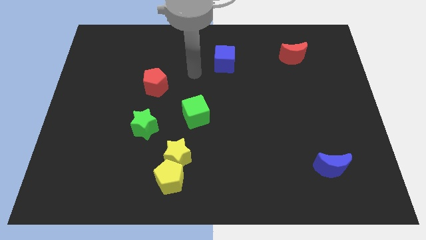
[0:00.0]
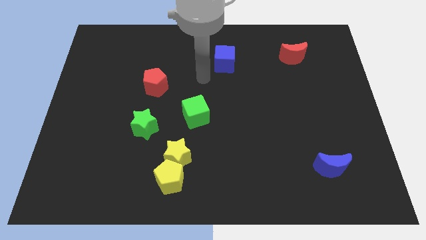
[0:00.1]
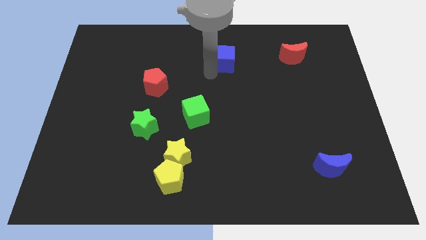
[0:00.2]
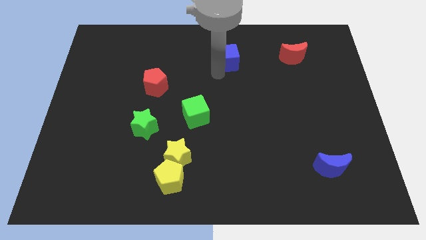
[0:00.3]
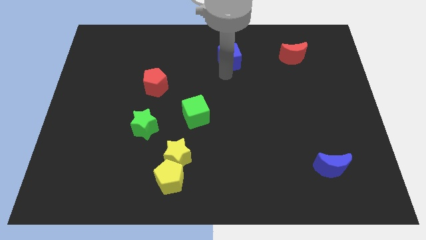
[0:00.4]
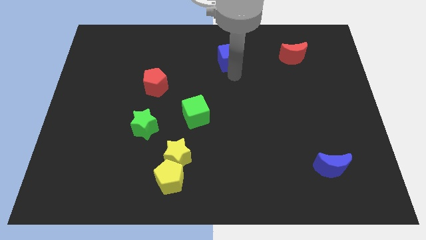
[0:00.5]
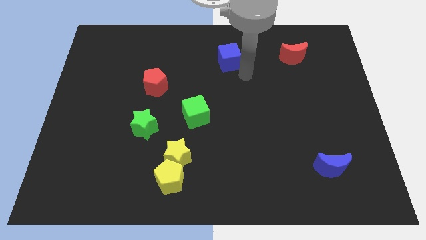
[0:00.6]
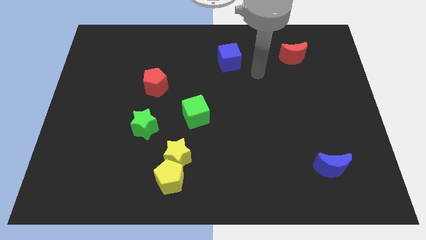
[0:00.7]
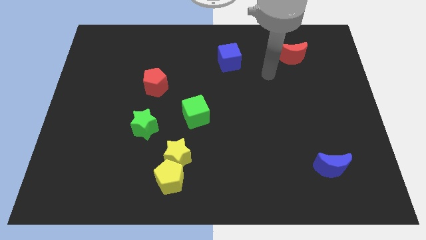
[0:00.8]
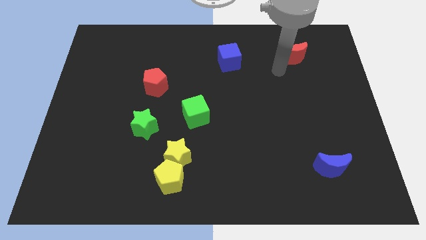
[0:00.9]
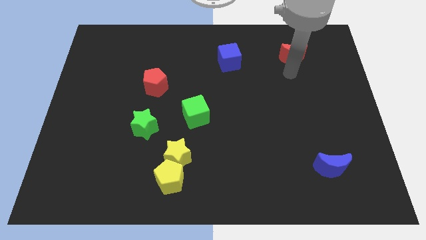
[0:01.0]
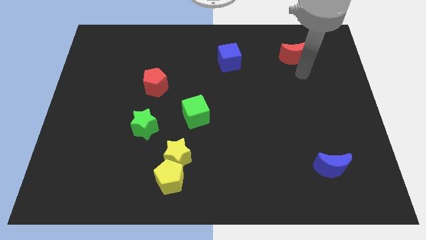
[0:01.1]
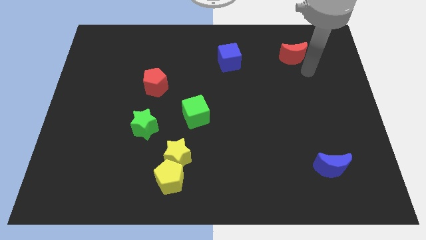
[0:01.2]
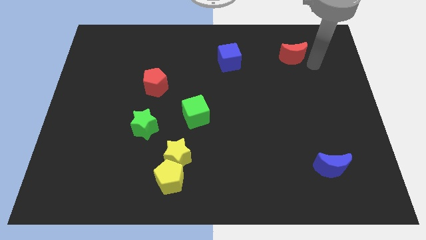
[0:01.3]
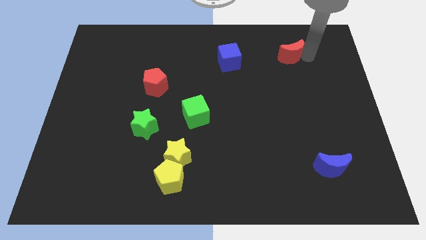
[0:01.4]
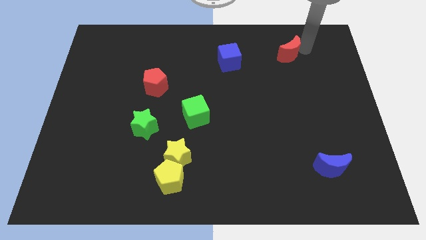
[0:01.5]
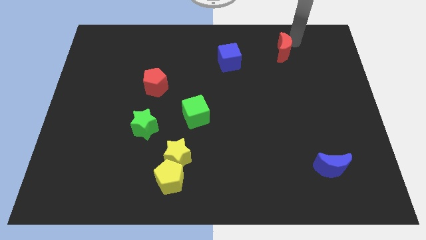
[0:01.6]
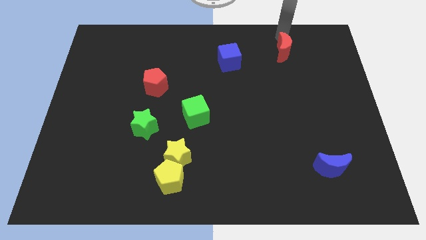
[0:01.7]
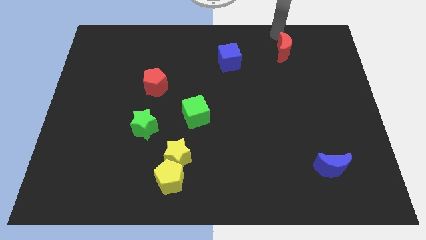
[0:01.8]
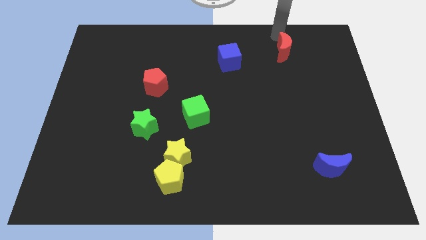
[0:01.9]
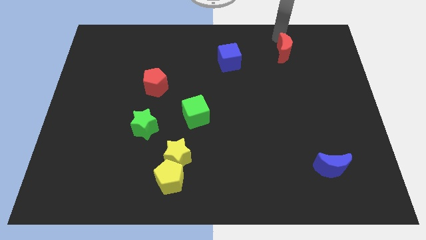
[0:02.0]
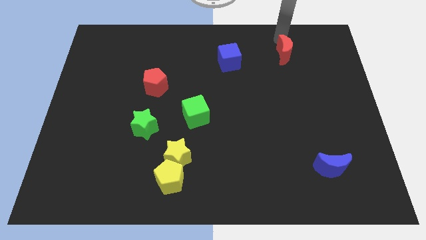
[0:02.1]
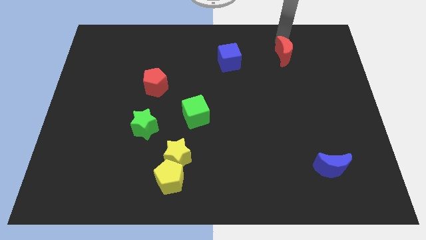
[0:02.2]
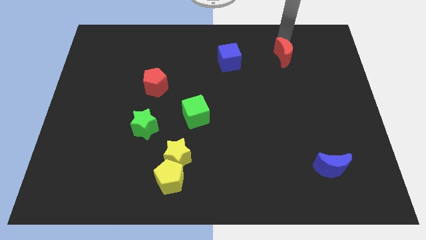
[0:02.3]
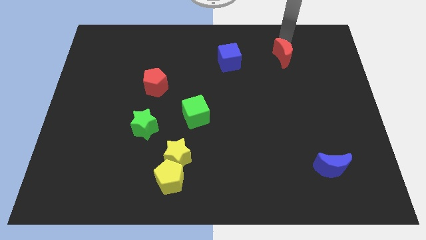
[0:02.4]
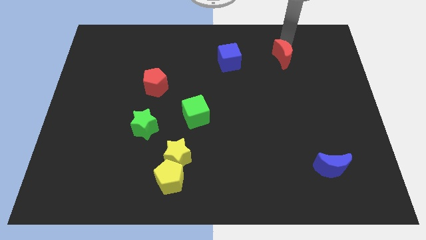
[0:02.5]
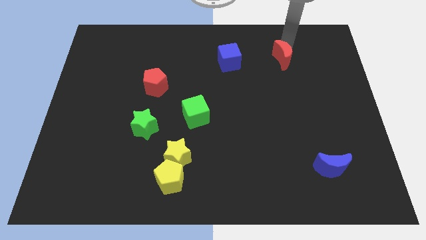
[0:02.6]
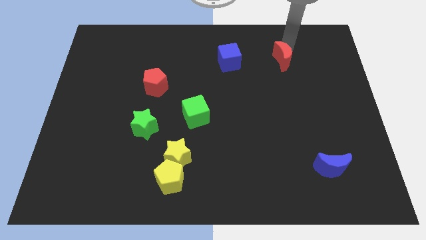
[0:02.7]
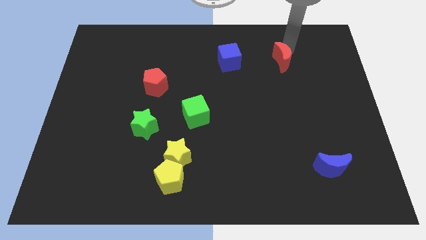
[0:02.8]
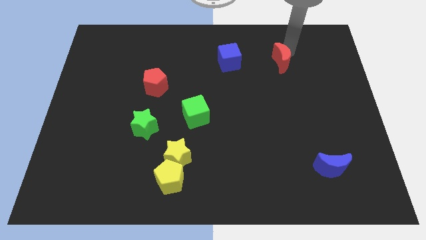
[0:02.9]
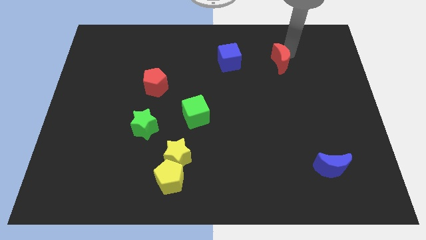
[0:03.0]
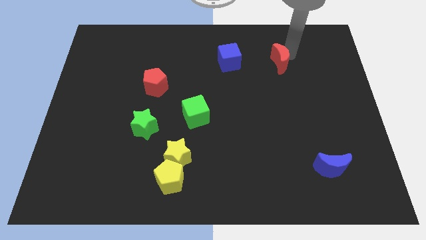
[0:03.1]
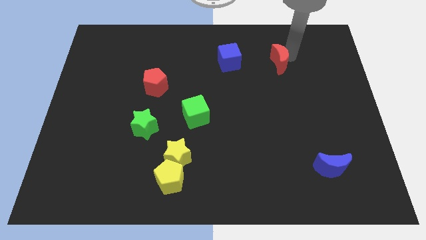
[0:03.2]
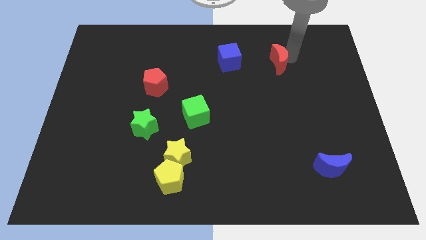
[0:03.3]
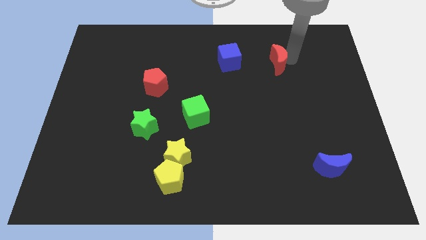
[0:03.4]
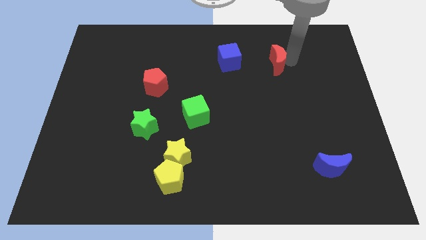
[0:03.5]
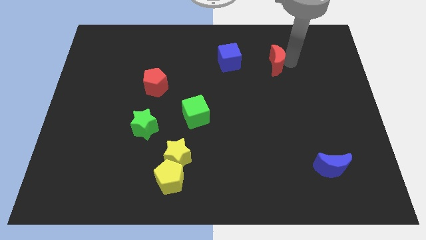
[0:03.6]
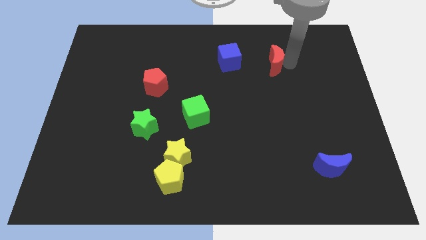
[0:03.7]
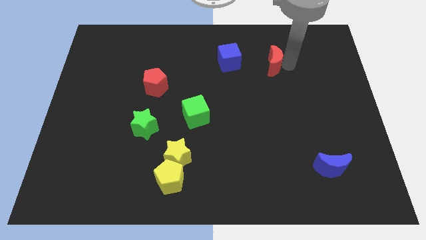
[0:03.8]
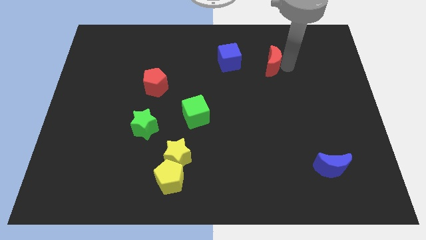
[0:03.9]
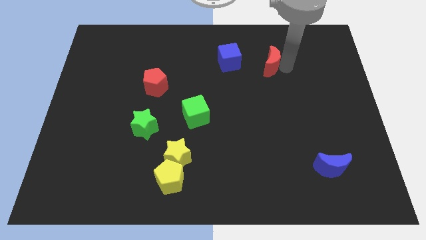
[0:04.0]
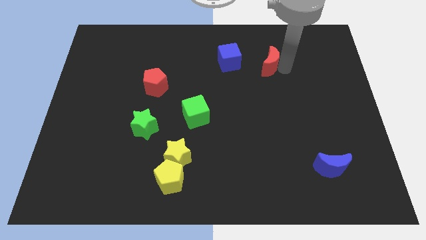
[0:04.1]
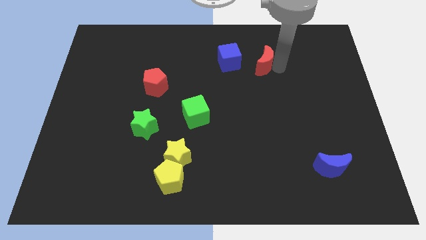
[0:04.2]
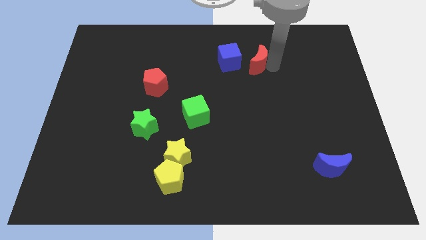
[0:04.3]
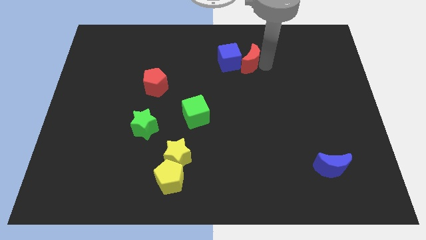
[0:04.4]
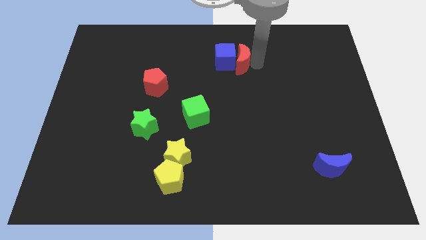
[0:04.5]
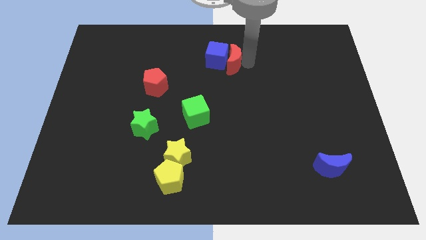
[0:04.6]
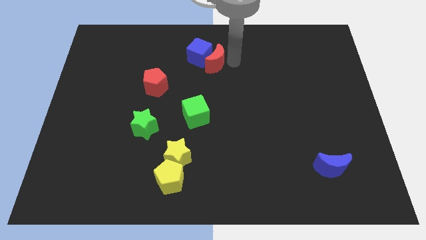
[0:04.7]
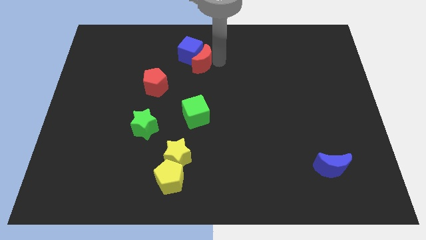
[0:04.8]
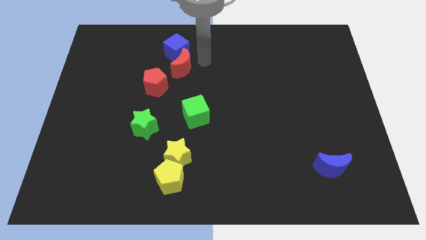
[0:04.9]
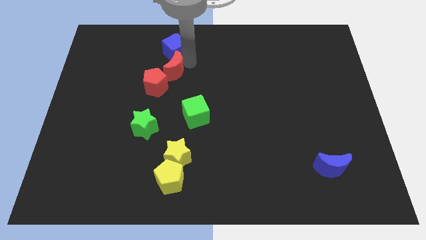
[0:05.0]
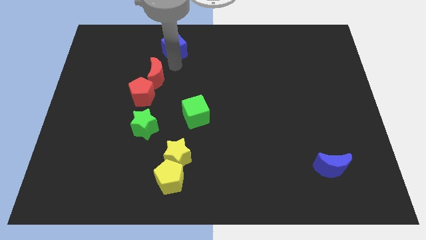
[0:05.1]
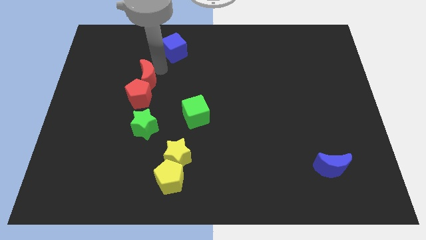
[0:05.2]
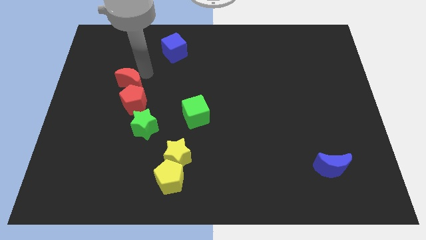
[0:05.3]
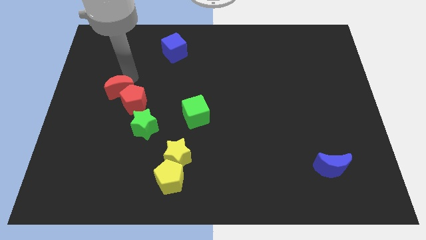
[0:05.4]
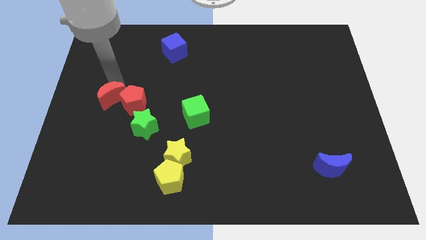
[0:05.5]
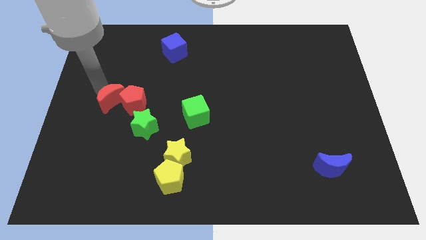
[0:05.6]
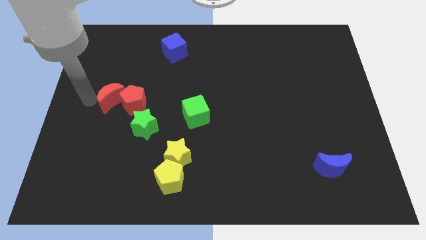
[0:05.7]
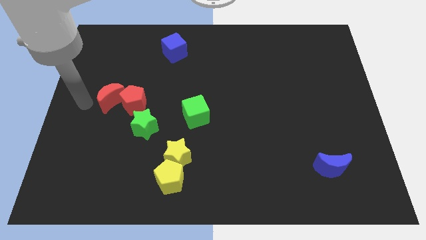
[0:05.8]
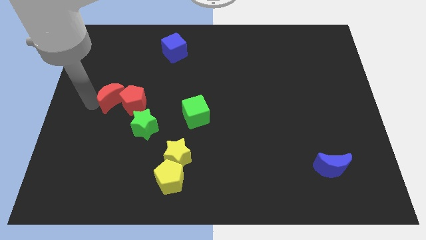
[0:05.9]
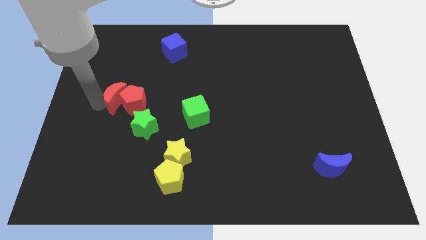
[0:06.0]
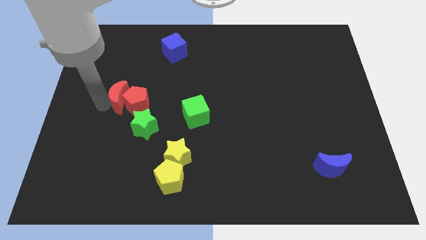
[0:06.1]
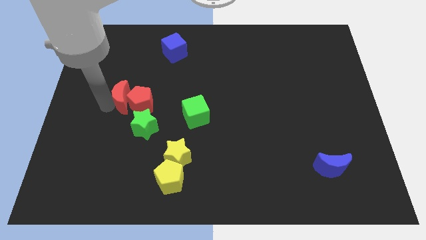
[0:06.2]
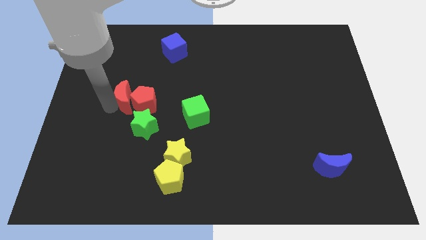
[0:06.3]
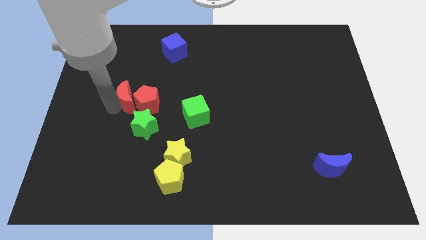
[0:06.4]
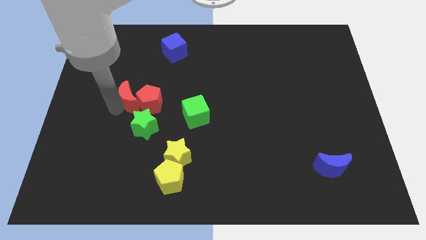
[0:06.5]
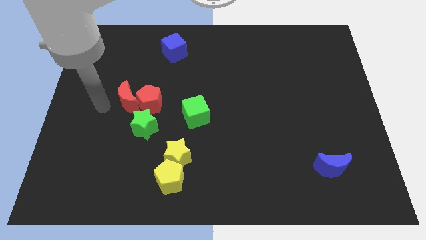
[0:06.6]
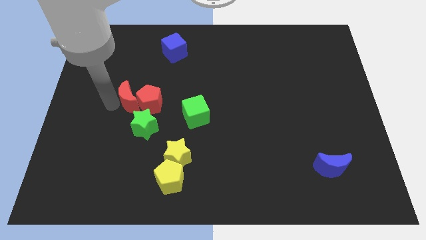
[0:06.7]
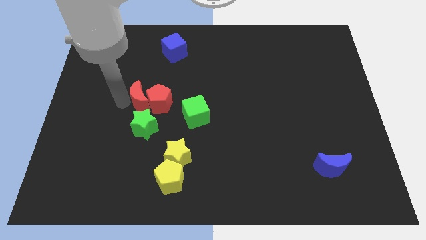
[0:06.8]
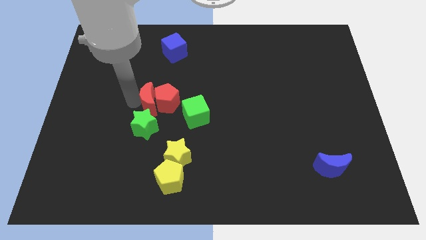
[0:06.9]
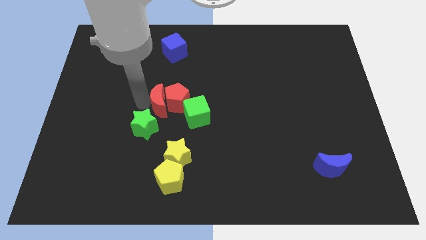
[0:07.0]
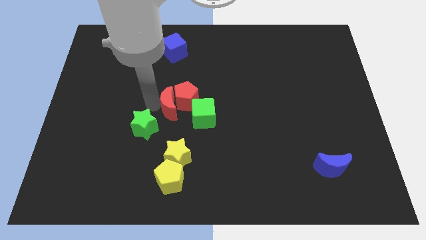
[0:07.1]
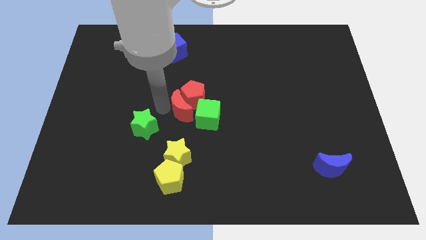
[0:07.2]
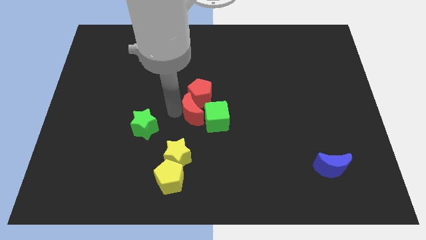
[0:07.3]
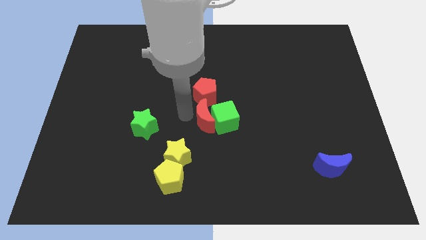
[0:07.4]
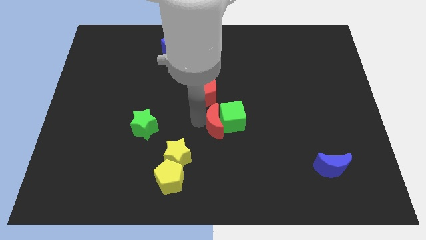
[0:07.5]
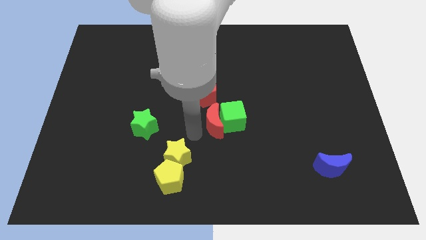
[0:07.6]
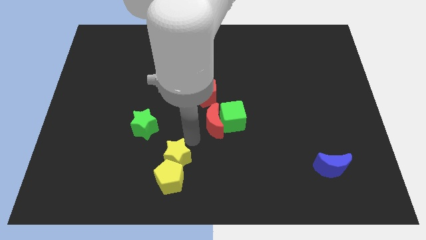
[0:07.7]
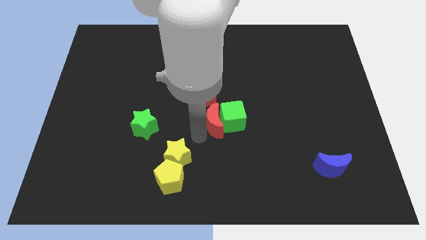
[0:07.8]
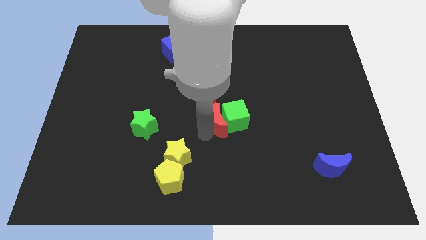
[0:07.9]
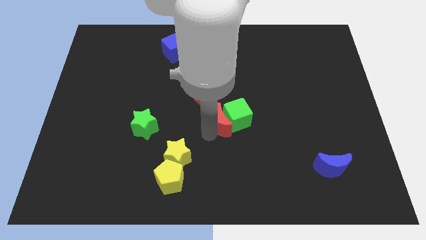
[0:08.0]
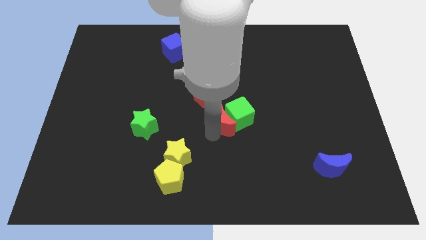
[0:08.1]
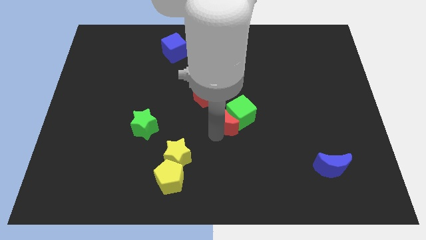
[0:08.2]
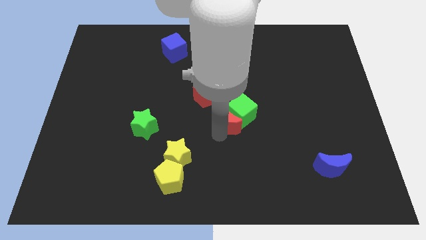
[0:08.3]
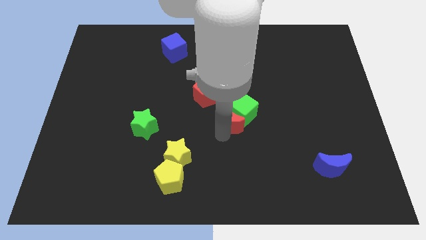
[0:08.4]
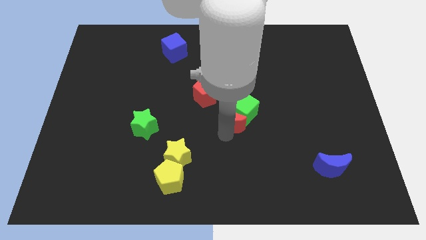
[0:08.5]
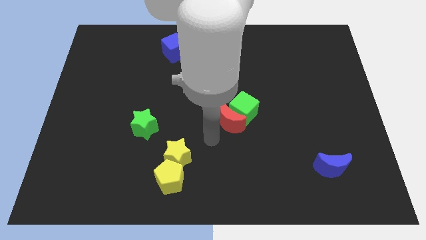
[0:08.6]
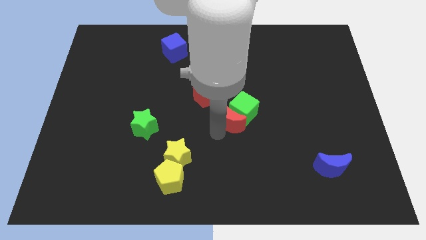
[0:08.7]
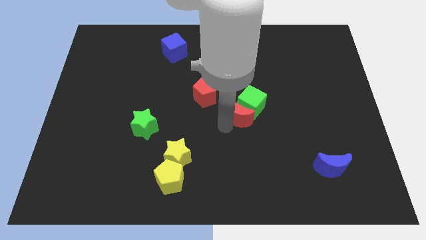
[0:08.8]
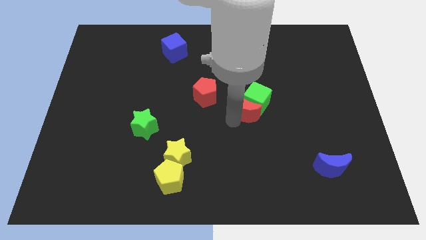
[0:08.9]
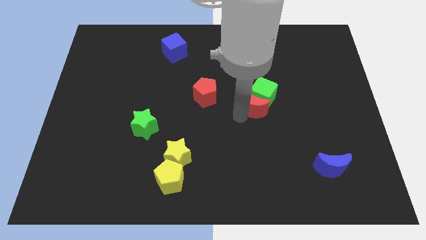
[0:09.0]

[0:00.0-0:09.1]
slightly move the red moon downwards
